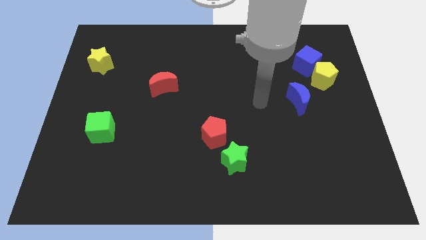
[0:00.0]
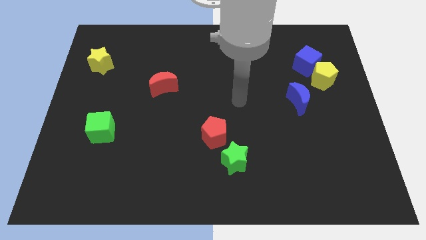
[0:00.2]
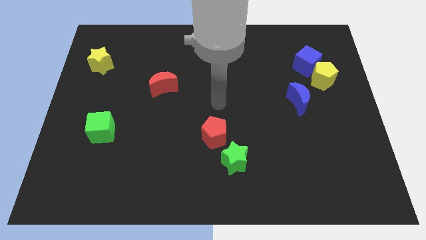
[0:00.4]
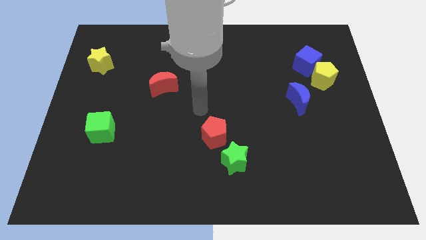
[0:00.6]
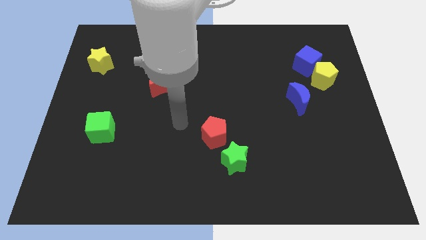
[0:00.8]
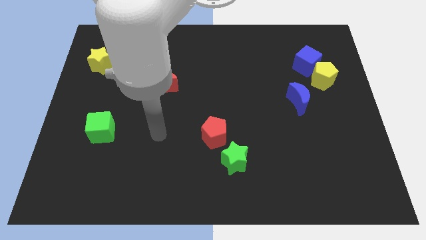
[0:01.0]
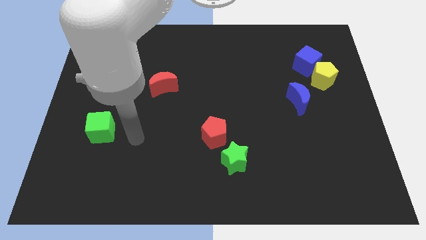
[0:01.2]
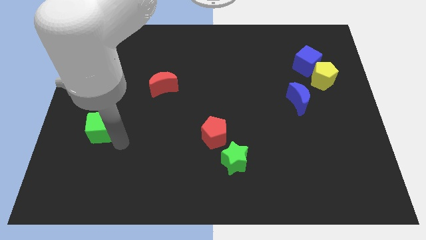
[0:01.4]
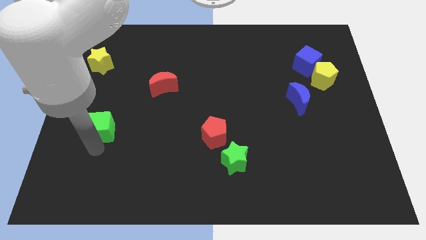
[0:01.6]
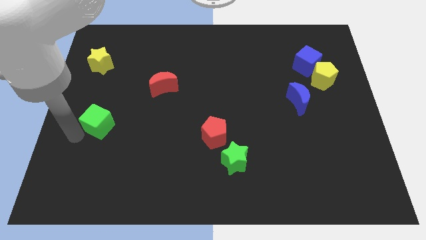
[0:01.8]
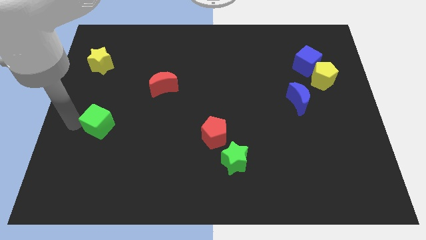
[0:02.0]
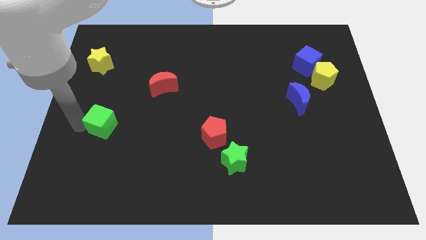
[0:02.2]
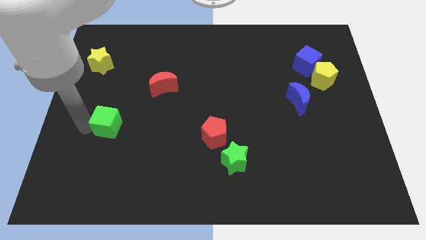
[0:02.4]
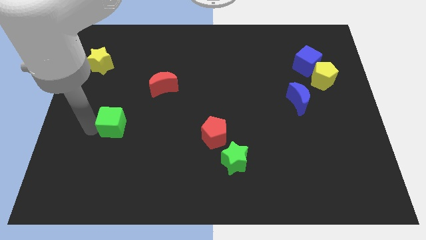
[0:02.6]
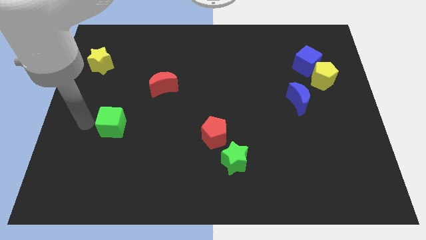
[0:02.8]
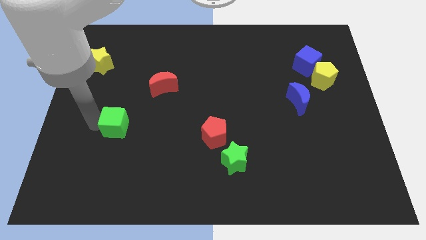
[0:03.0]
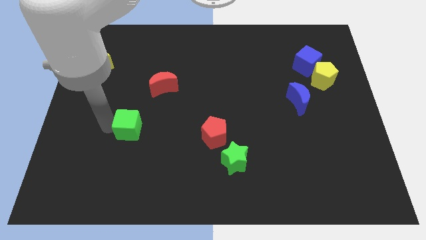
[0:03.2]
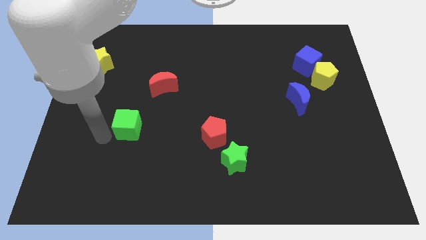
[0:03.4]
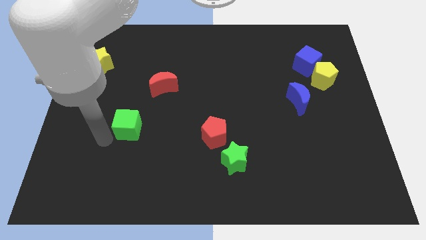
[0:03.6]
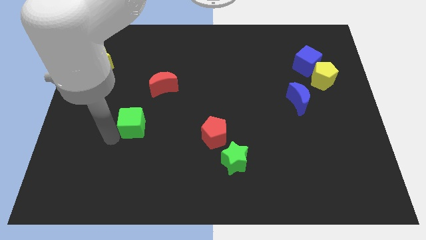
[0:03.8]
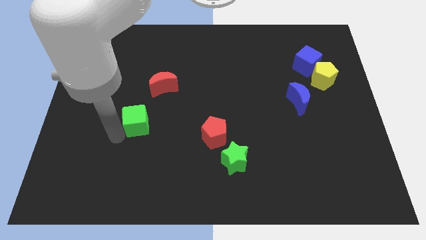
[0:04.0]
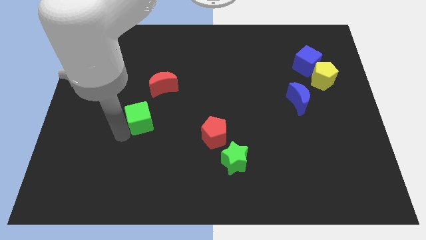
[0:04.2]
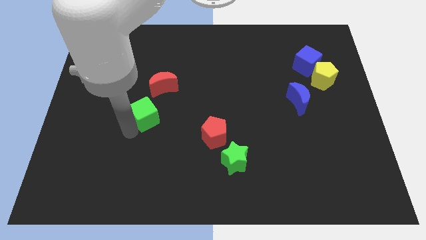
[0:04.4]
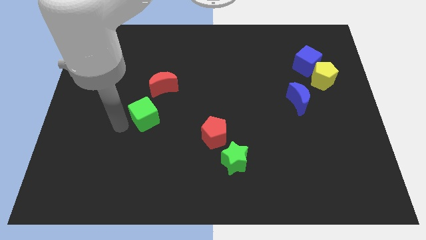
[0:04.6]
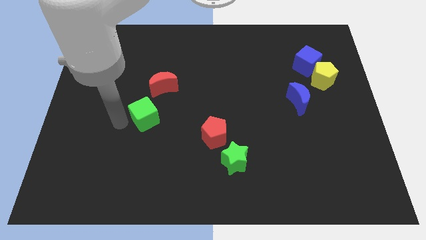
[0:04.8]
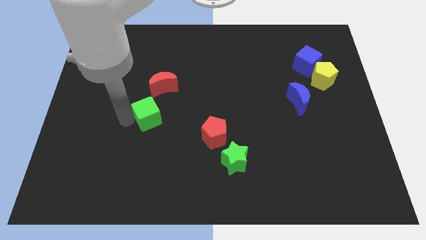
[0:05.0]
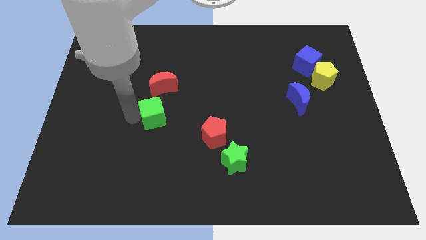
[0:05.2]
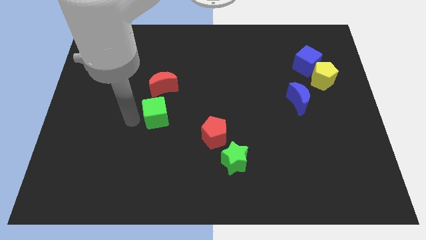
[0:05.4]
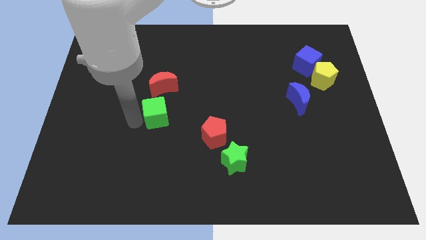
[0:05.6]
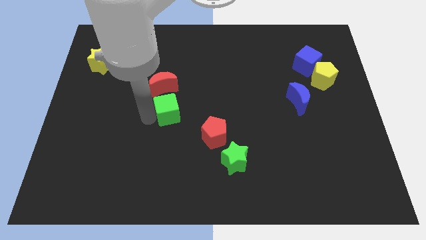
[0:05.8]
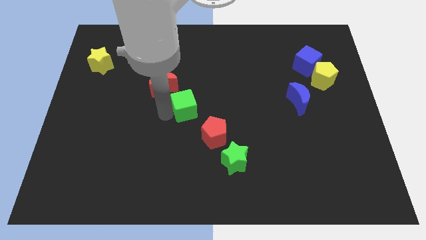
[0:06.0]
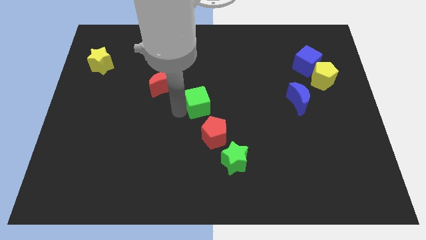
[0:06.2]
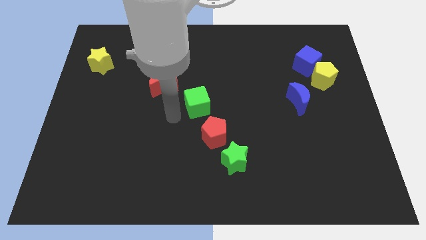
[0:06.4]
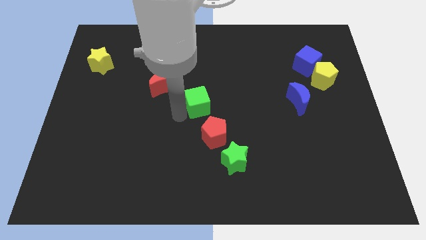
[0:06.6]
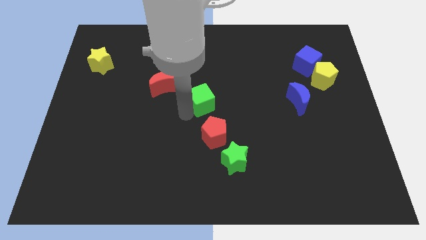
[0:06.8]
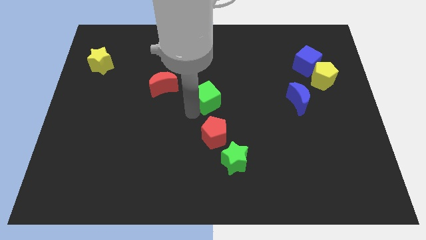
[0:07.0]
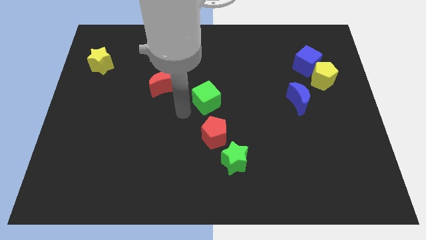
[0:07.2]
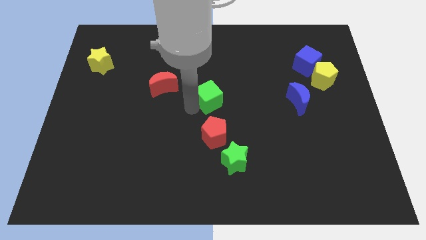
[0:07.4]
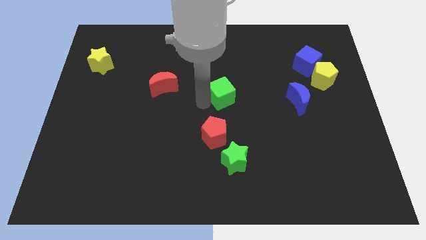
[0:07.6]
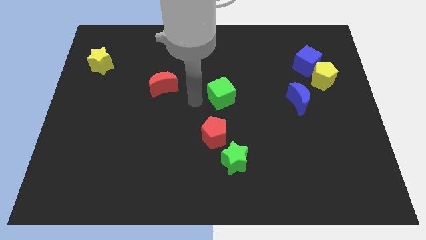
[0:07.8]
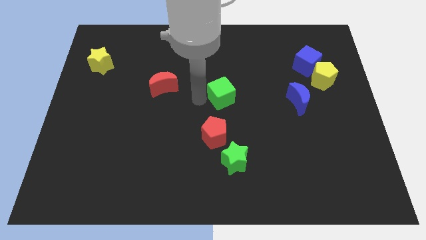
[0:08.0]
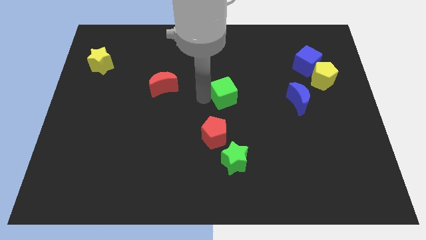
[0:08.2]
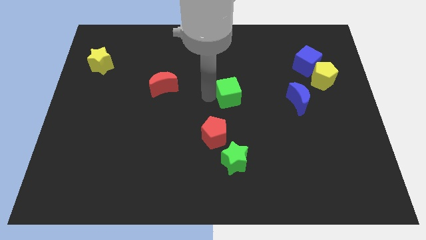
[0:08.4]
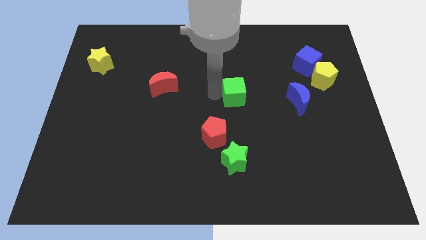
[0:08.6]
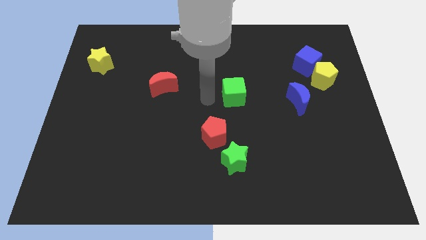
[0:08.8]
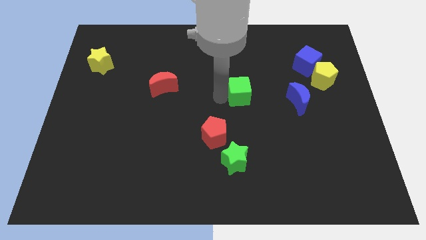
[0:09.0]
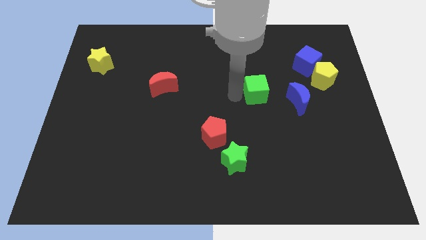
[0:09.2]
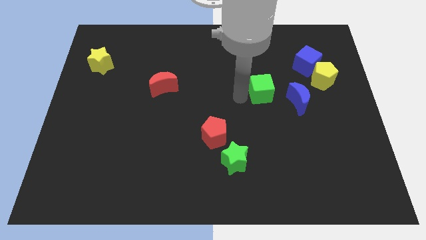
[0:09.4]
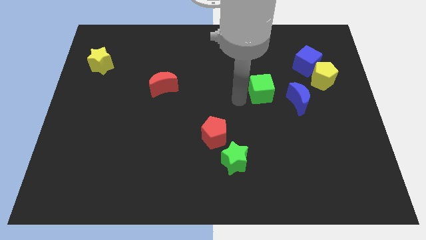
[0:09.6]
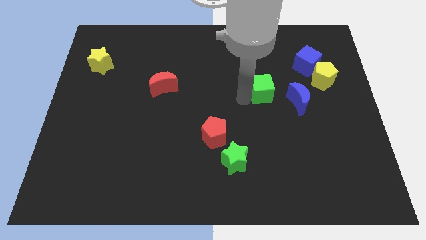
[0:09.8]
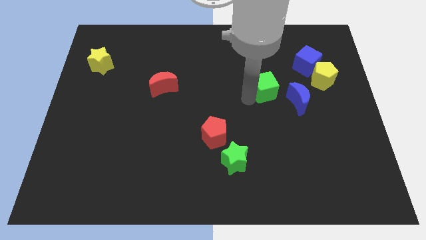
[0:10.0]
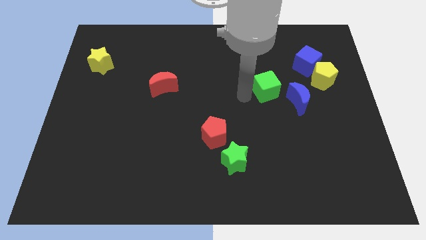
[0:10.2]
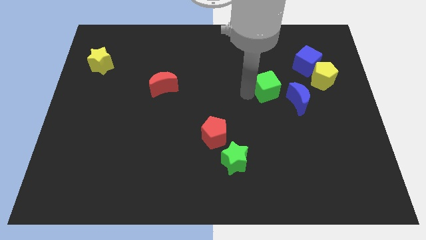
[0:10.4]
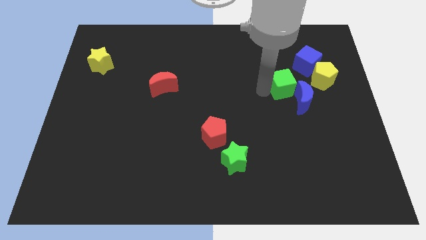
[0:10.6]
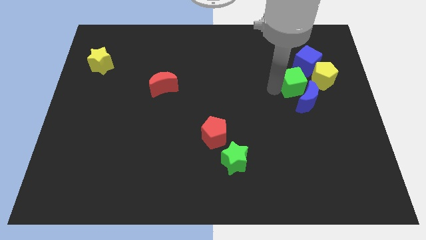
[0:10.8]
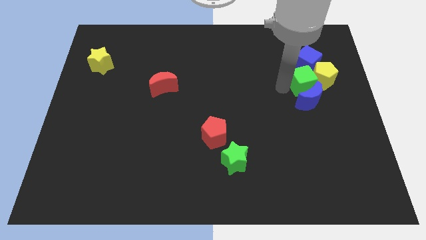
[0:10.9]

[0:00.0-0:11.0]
push the green cube towards the yellow pentagon
